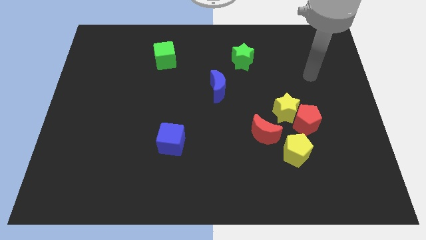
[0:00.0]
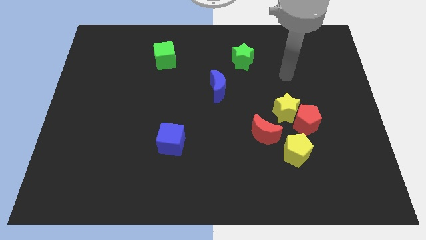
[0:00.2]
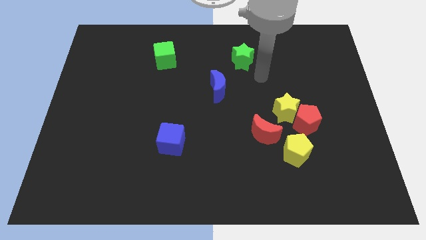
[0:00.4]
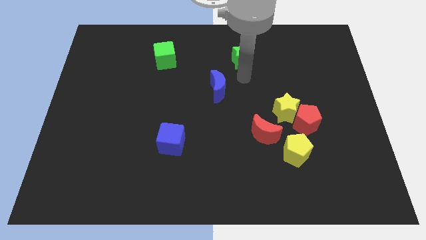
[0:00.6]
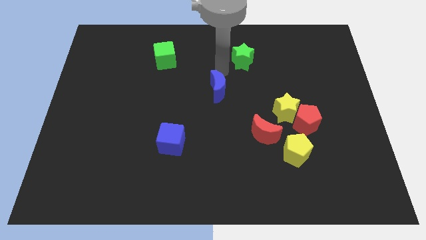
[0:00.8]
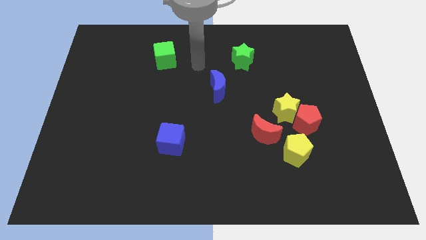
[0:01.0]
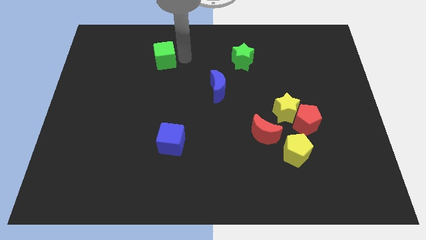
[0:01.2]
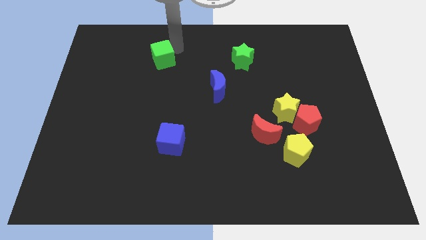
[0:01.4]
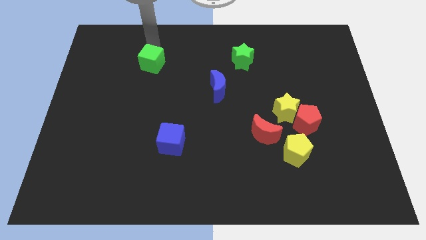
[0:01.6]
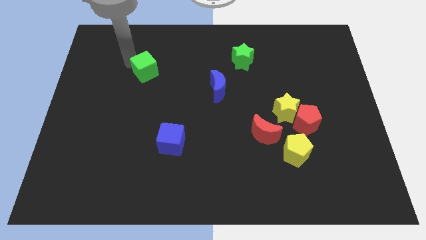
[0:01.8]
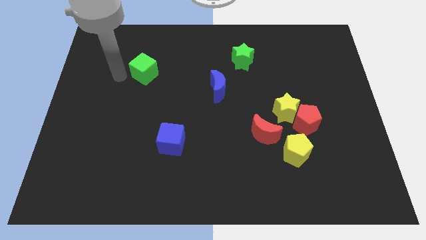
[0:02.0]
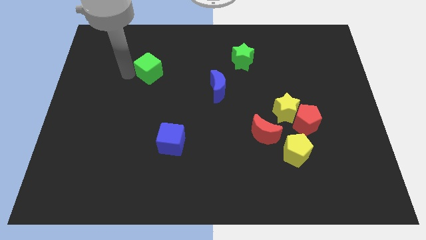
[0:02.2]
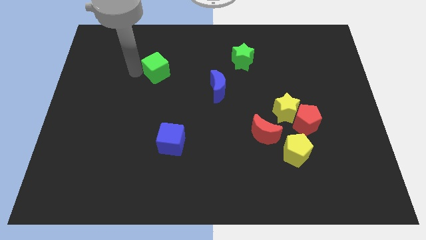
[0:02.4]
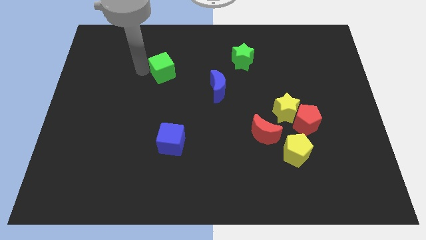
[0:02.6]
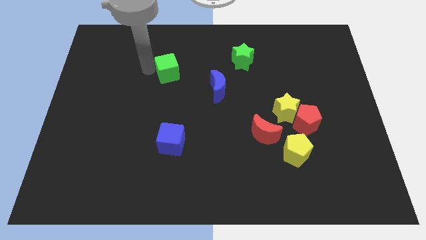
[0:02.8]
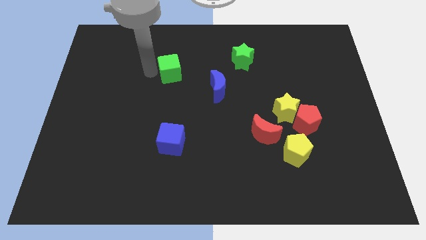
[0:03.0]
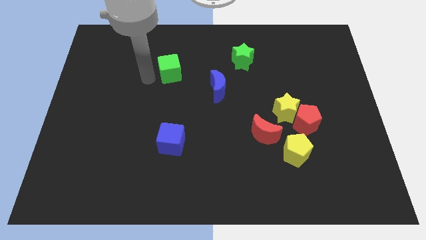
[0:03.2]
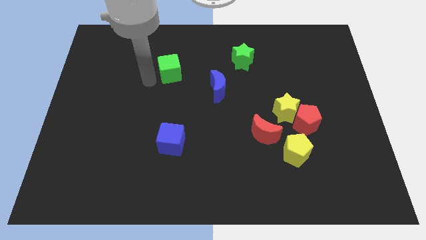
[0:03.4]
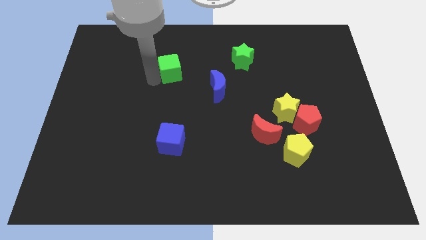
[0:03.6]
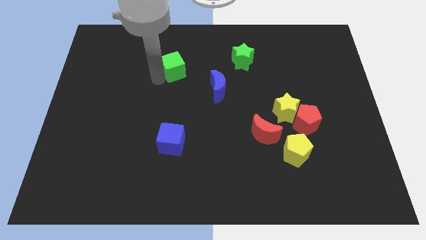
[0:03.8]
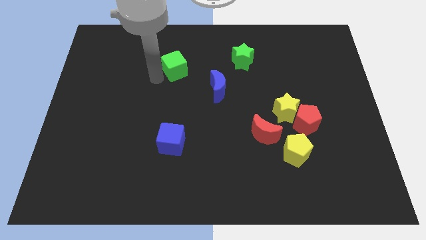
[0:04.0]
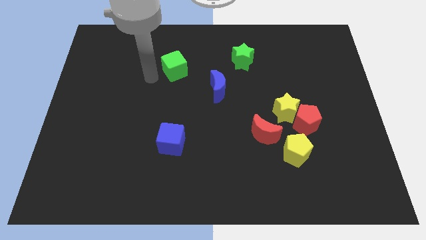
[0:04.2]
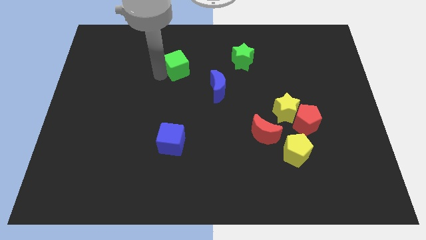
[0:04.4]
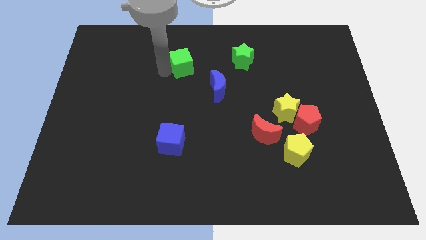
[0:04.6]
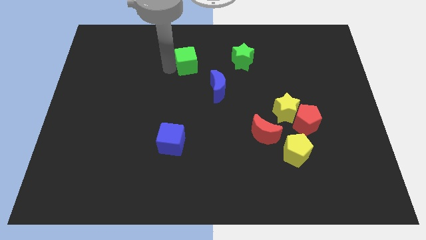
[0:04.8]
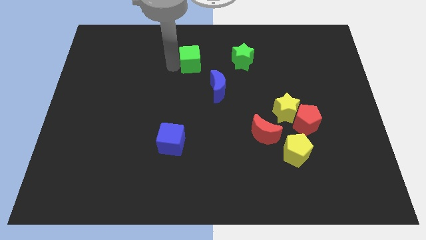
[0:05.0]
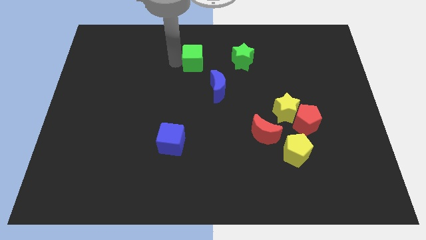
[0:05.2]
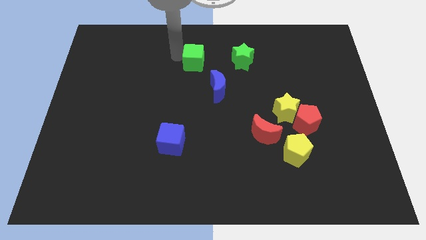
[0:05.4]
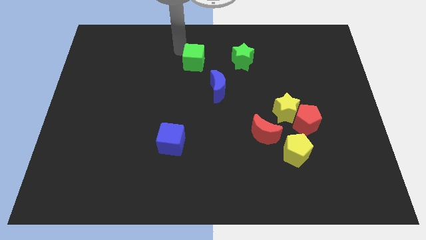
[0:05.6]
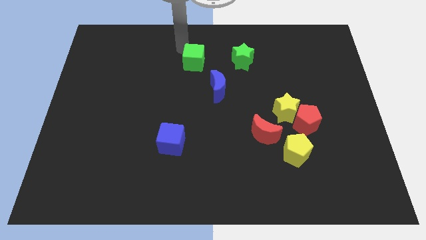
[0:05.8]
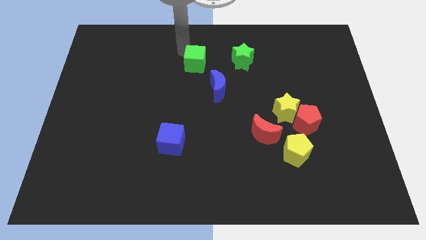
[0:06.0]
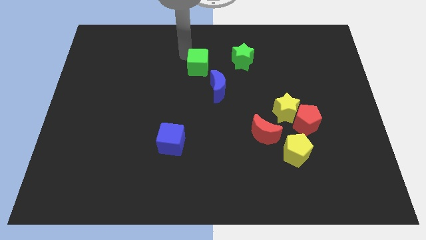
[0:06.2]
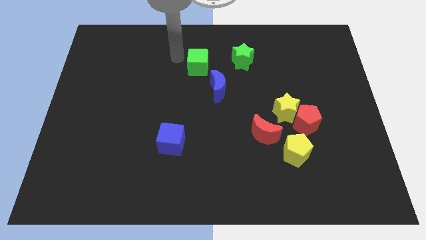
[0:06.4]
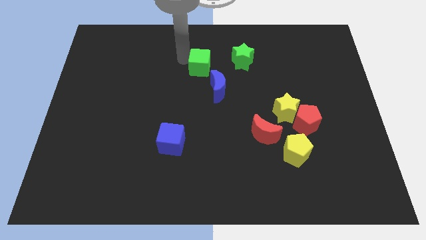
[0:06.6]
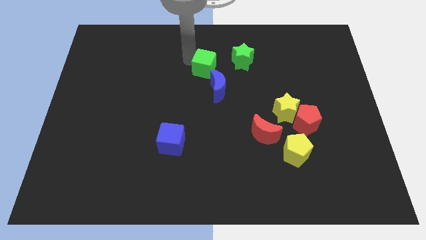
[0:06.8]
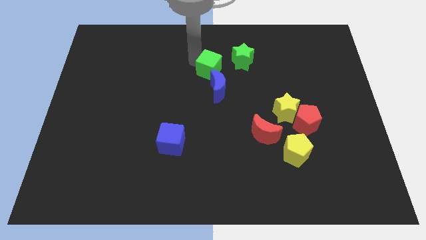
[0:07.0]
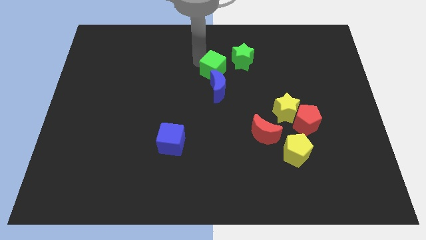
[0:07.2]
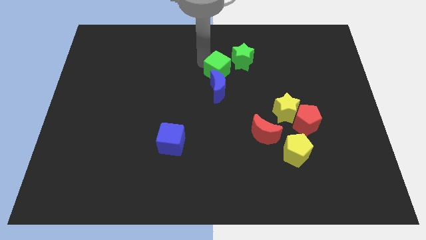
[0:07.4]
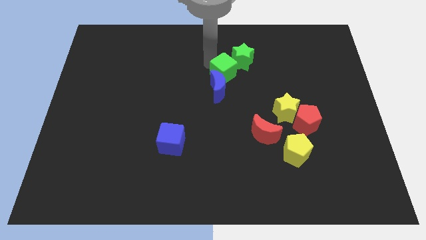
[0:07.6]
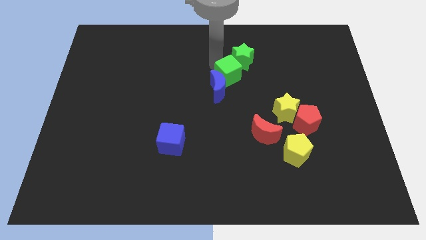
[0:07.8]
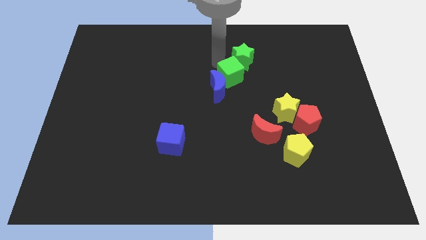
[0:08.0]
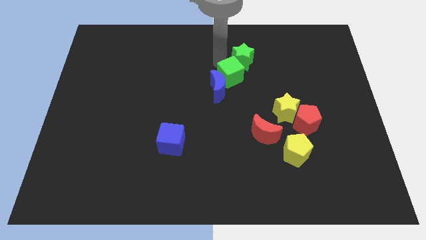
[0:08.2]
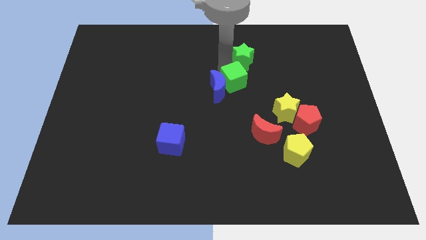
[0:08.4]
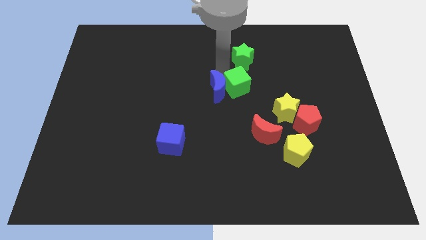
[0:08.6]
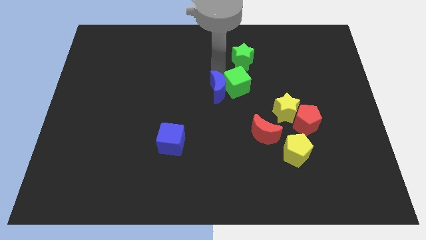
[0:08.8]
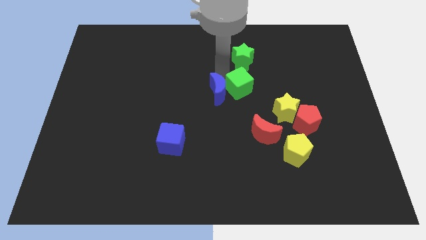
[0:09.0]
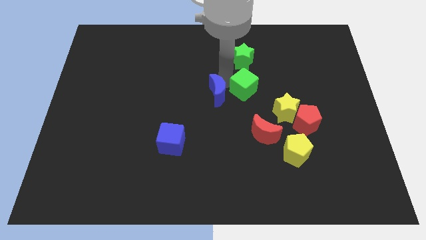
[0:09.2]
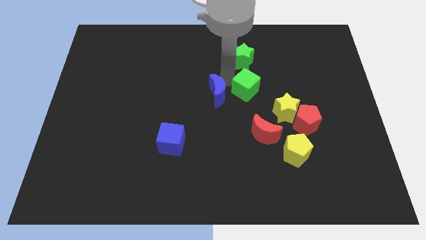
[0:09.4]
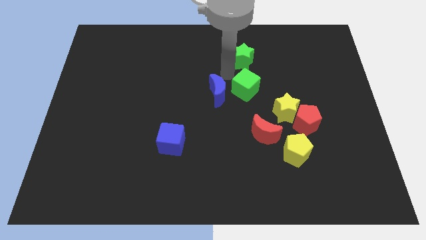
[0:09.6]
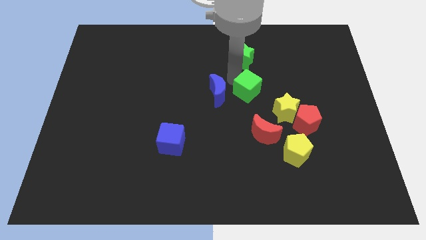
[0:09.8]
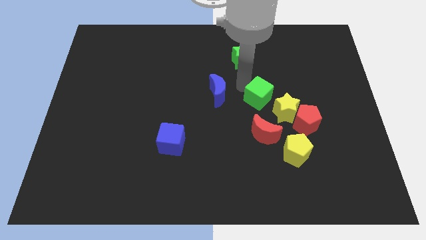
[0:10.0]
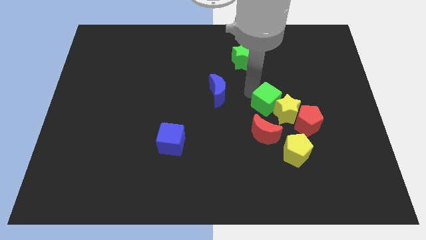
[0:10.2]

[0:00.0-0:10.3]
push the green cube close to the yellow star

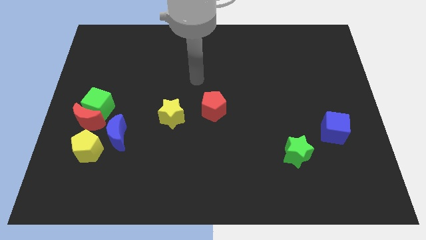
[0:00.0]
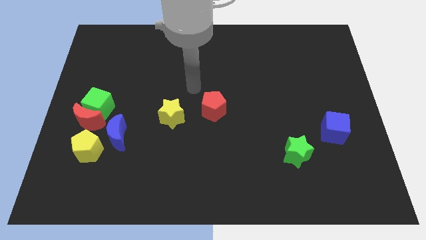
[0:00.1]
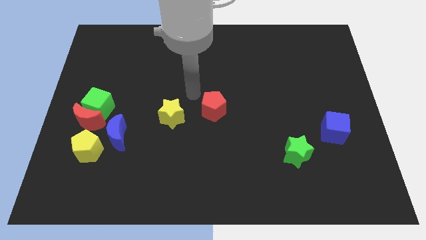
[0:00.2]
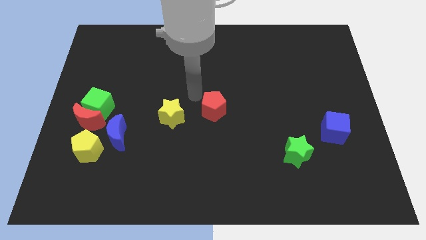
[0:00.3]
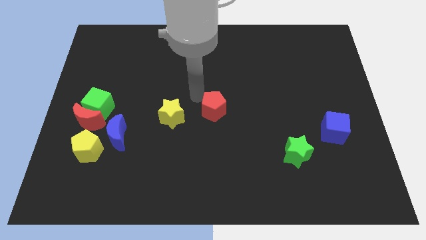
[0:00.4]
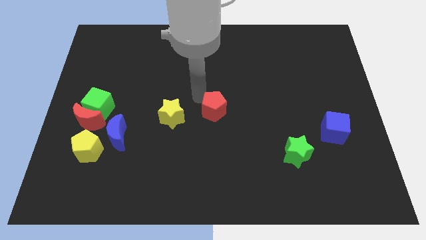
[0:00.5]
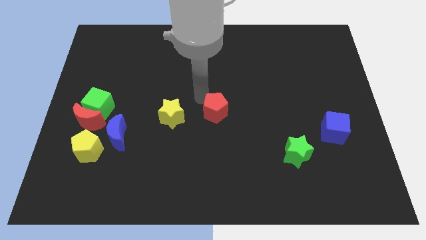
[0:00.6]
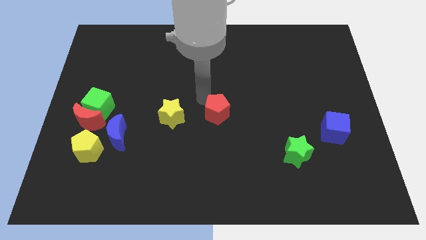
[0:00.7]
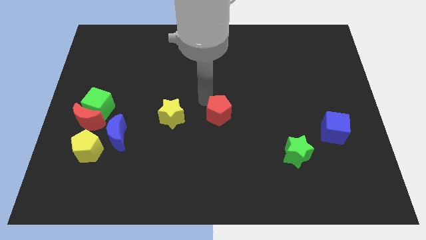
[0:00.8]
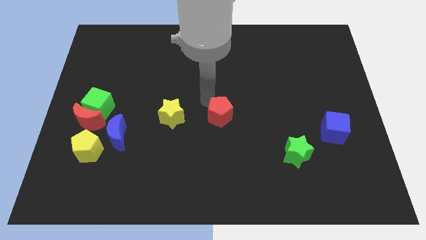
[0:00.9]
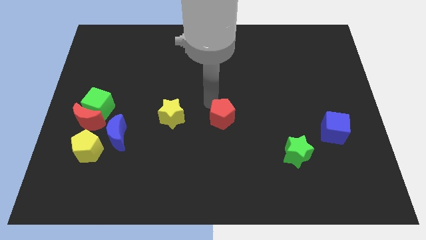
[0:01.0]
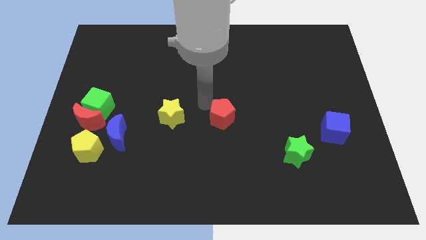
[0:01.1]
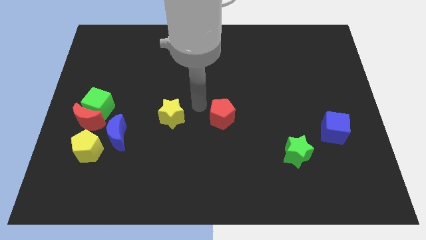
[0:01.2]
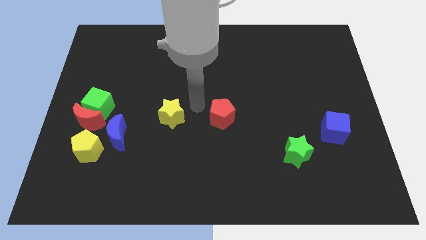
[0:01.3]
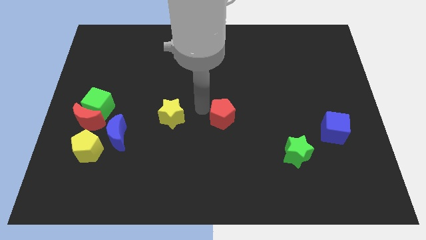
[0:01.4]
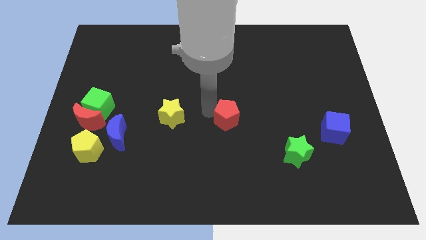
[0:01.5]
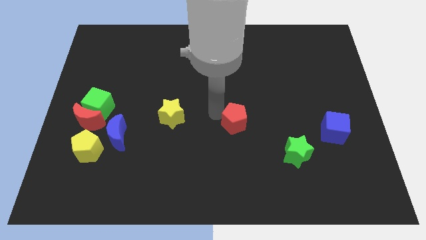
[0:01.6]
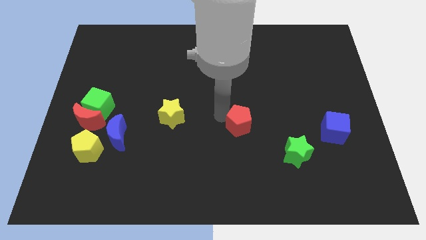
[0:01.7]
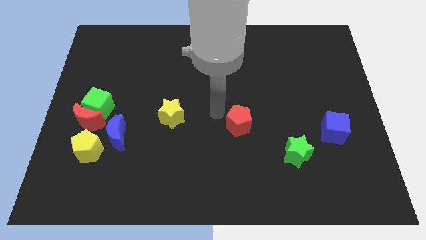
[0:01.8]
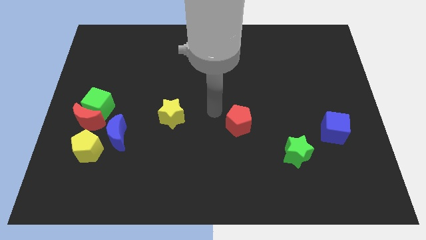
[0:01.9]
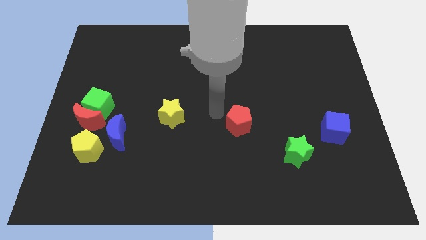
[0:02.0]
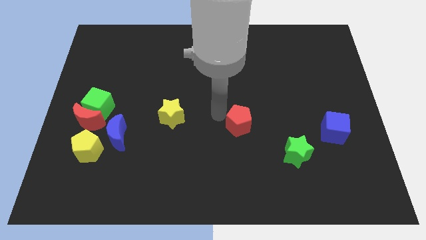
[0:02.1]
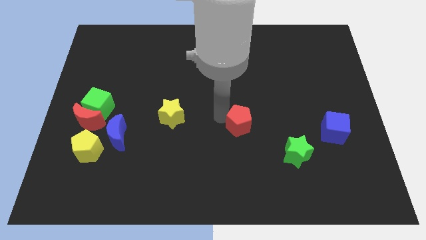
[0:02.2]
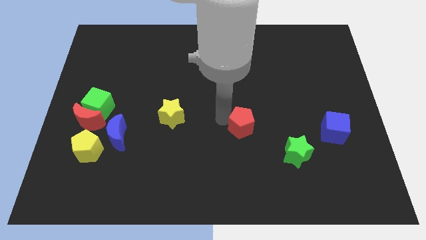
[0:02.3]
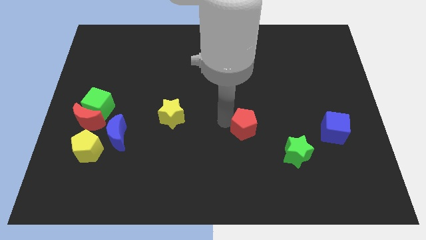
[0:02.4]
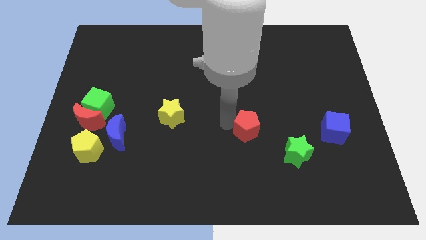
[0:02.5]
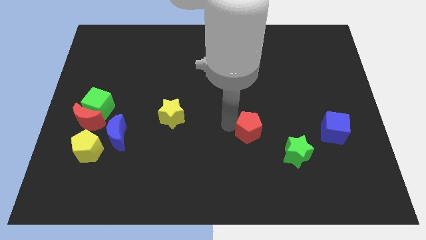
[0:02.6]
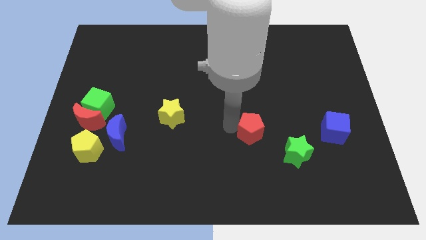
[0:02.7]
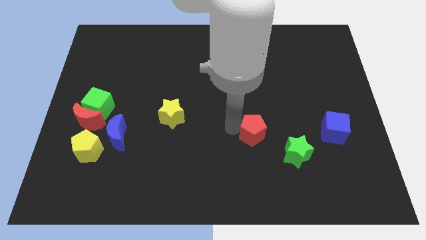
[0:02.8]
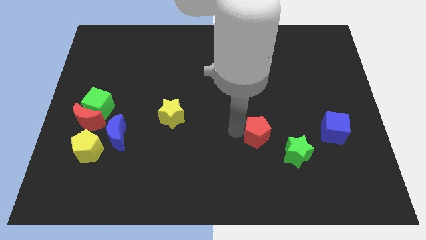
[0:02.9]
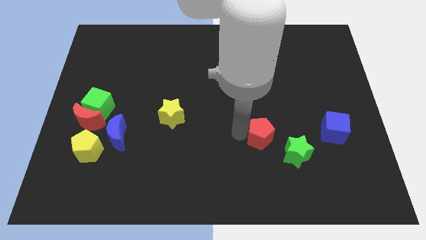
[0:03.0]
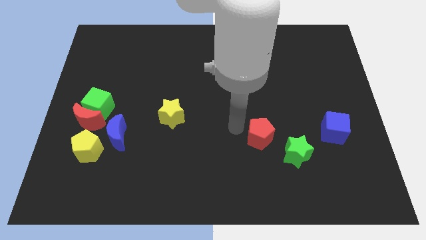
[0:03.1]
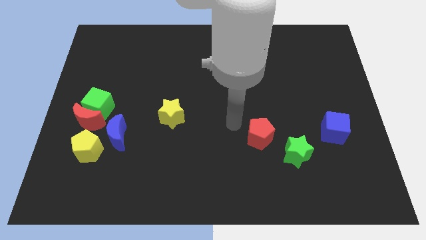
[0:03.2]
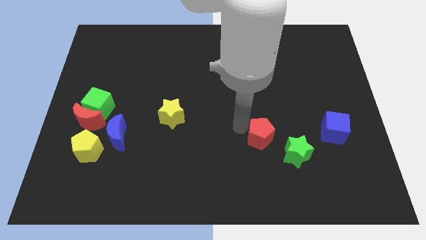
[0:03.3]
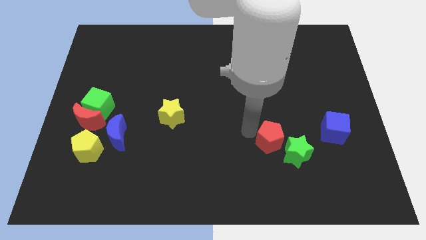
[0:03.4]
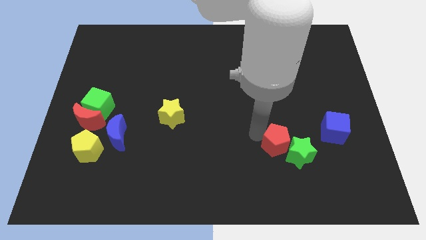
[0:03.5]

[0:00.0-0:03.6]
push the red pentagon next to the green star
